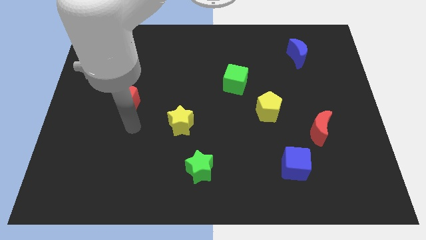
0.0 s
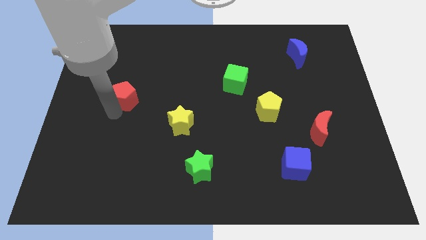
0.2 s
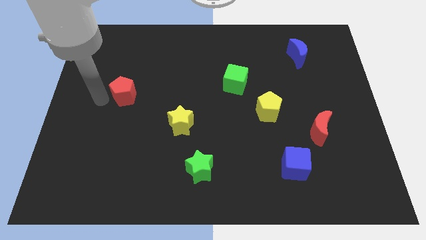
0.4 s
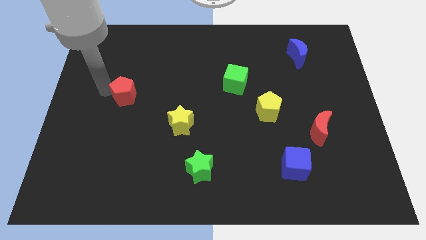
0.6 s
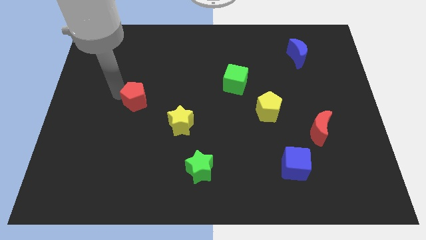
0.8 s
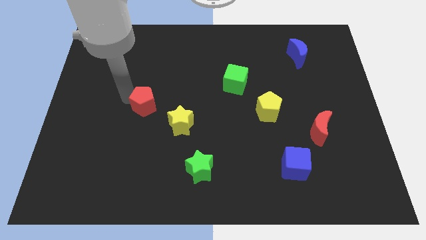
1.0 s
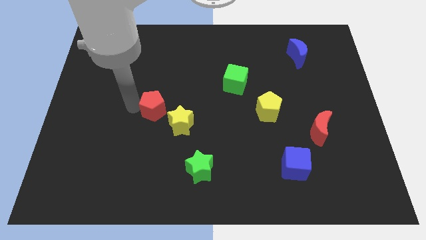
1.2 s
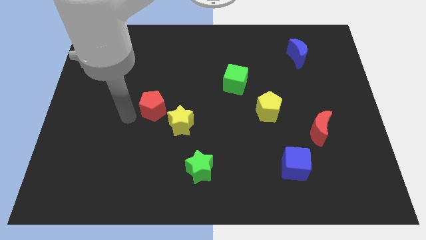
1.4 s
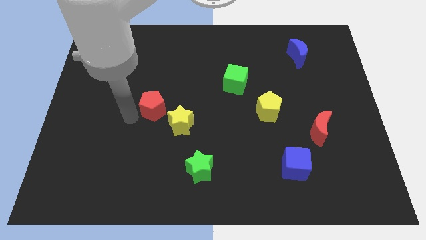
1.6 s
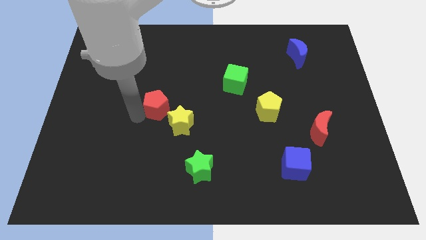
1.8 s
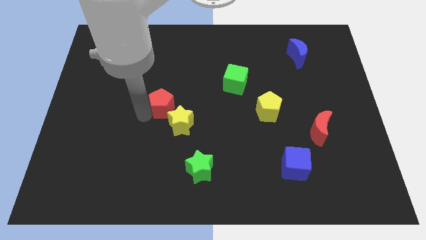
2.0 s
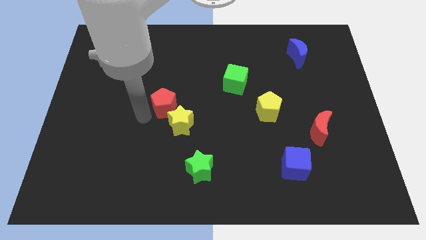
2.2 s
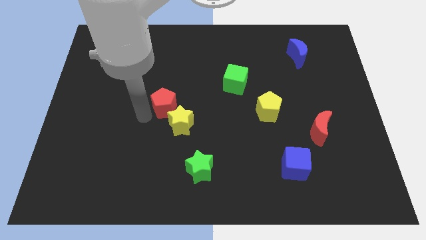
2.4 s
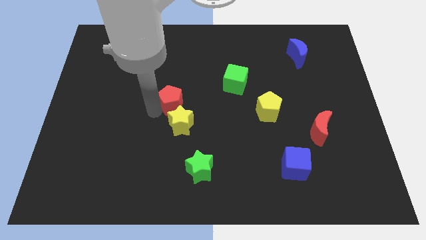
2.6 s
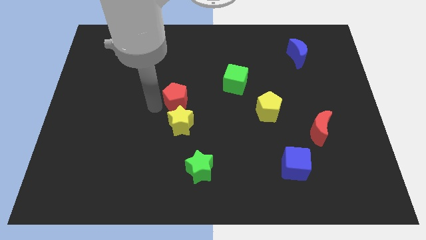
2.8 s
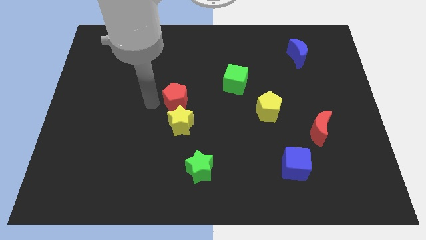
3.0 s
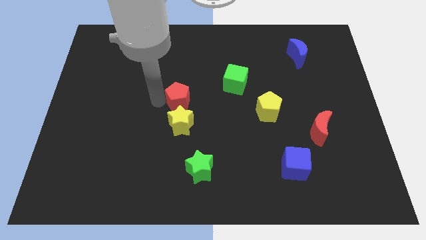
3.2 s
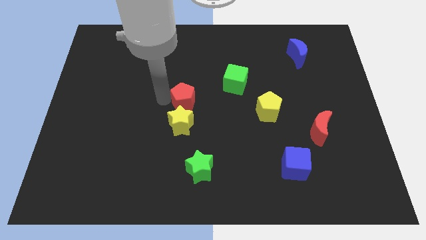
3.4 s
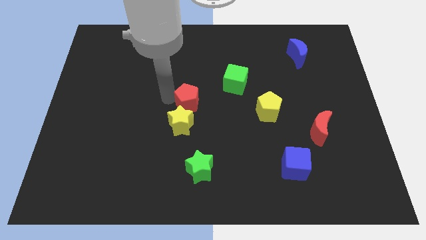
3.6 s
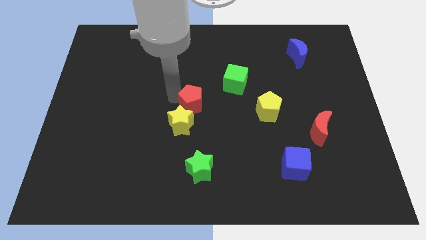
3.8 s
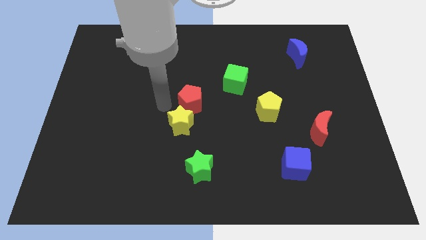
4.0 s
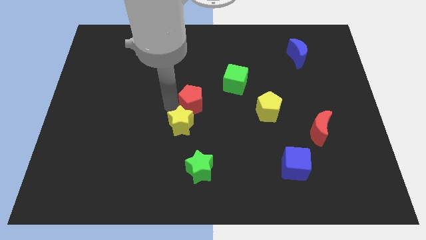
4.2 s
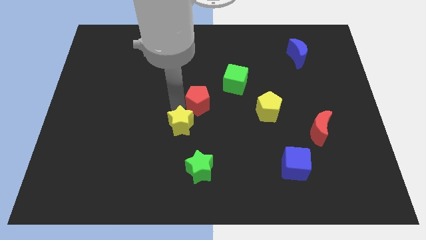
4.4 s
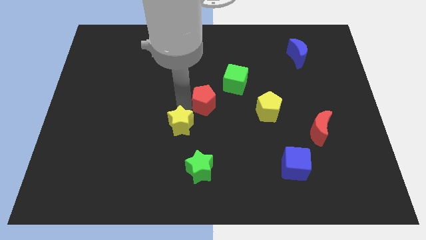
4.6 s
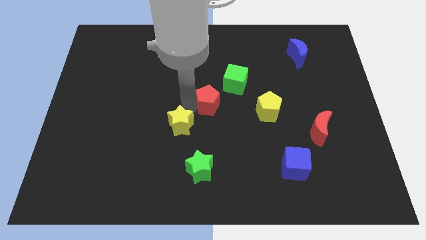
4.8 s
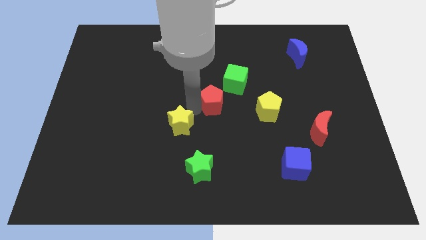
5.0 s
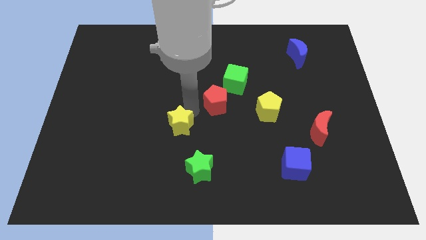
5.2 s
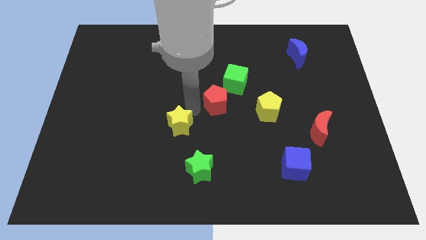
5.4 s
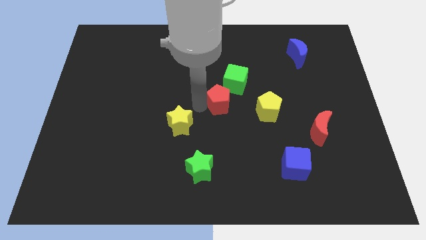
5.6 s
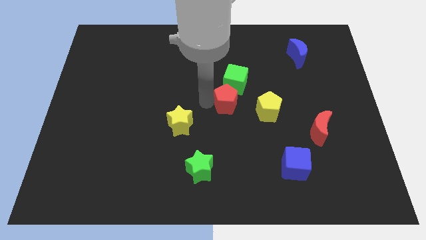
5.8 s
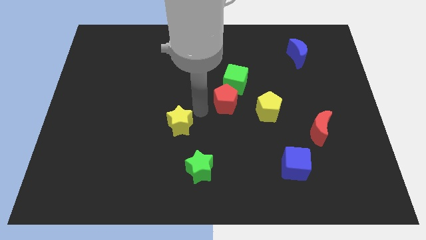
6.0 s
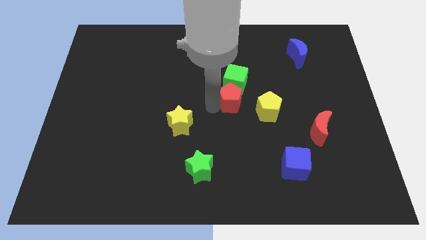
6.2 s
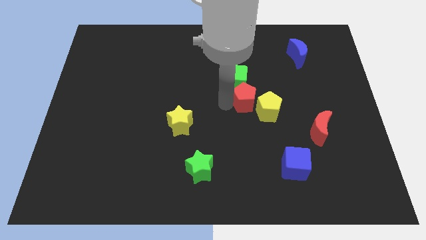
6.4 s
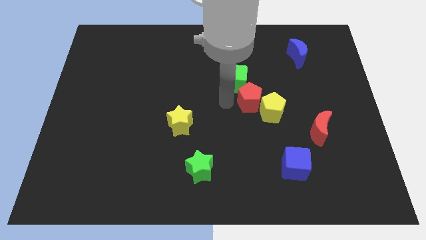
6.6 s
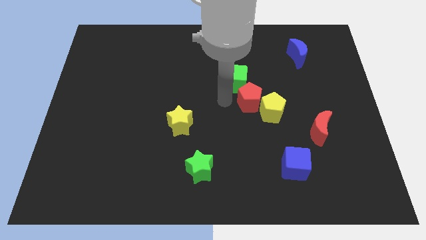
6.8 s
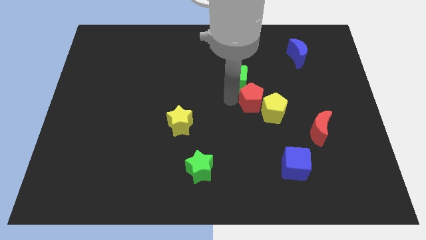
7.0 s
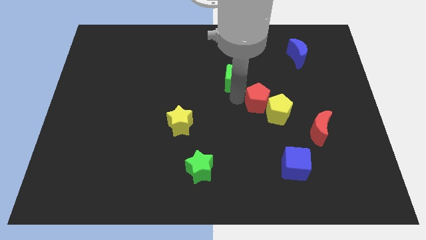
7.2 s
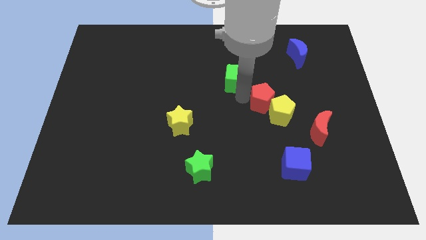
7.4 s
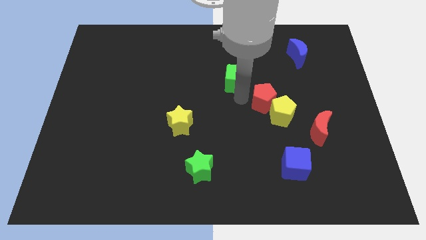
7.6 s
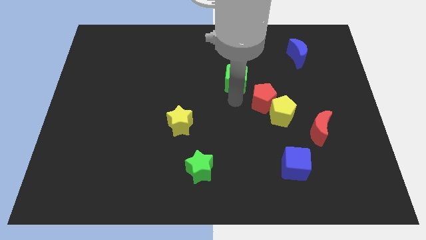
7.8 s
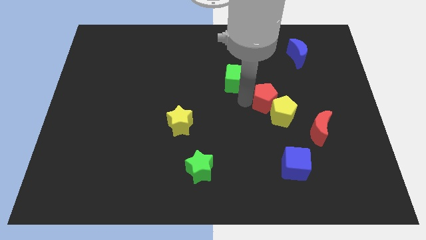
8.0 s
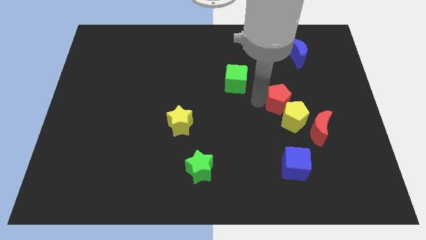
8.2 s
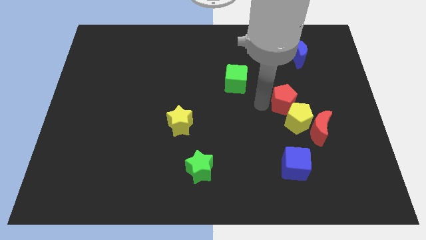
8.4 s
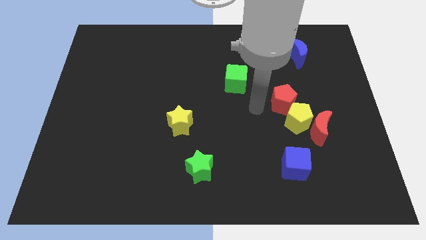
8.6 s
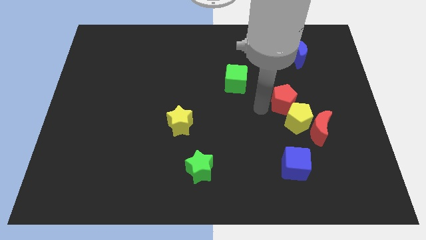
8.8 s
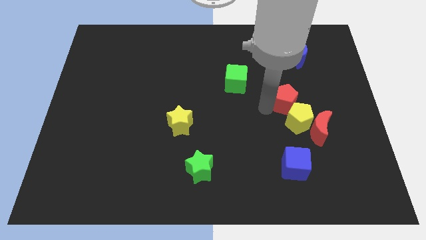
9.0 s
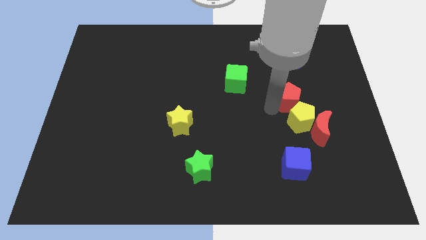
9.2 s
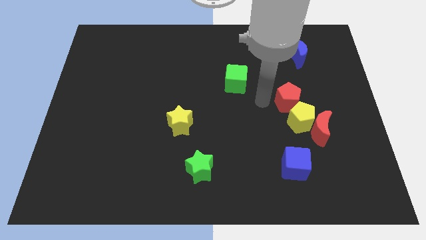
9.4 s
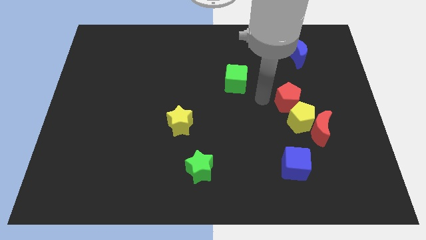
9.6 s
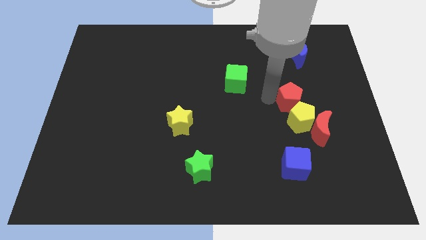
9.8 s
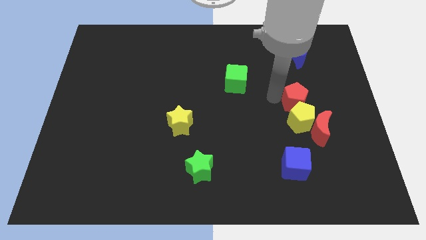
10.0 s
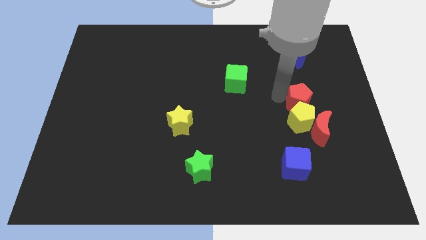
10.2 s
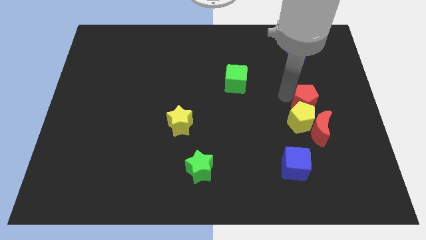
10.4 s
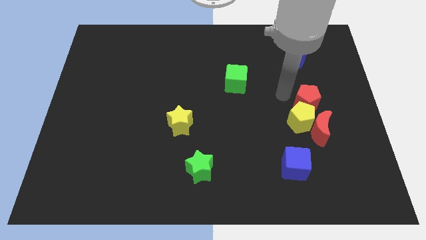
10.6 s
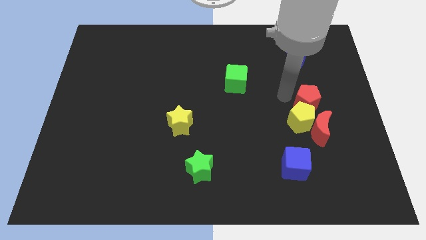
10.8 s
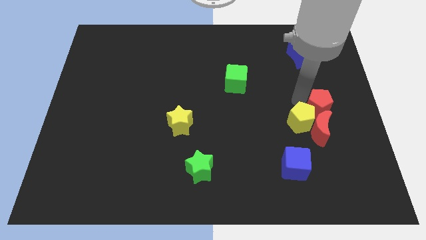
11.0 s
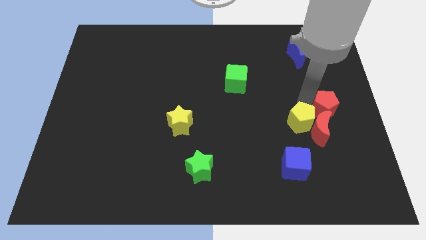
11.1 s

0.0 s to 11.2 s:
slide the red pentagon to the right side

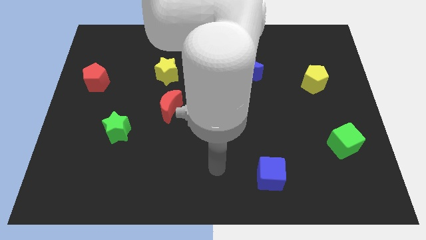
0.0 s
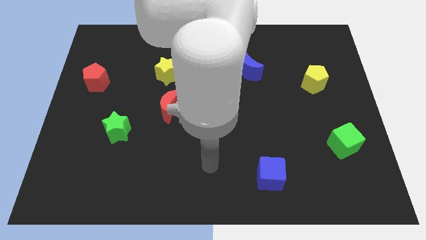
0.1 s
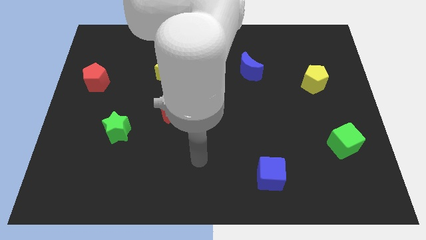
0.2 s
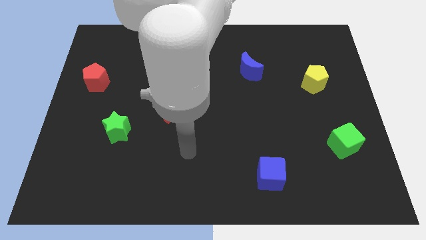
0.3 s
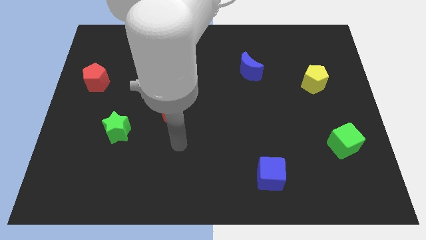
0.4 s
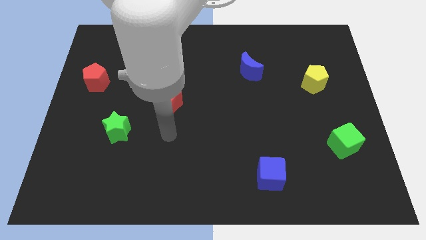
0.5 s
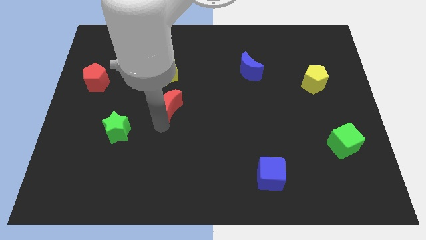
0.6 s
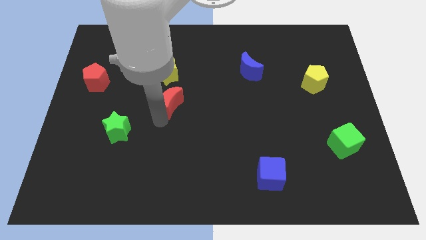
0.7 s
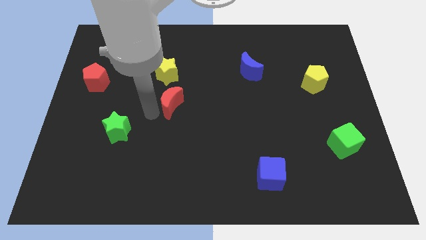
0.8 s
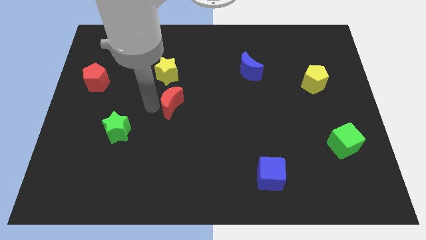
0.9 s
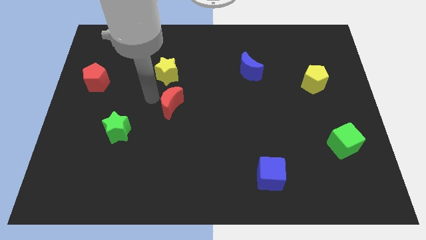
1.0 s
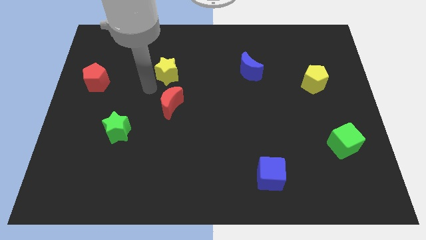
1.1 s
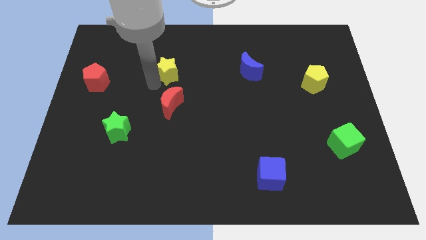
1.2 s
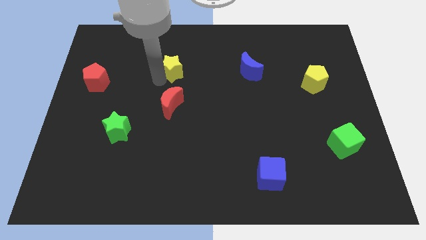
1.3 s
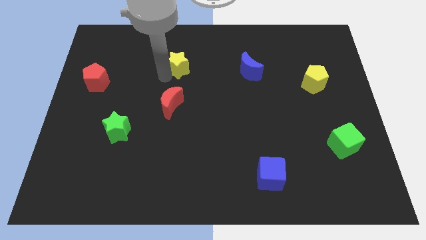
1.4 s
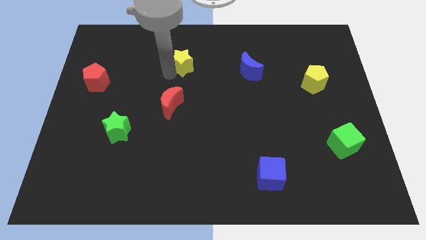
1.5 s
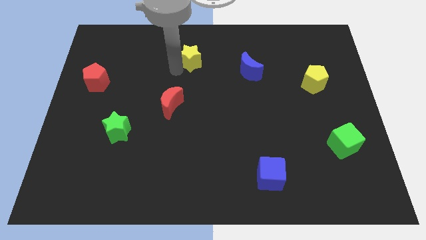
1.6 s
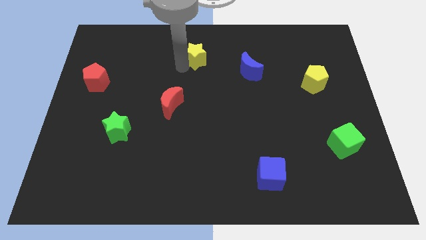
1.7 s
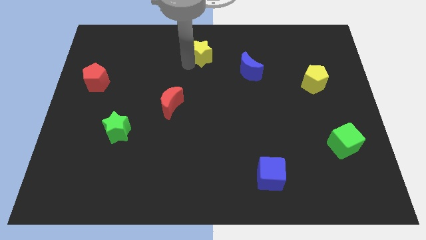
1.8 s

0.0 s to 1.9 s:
move the yellow star to the top side
